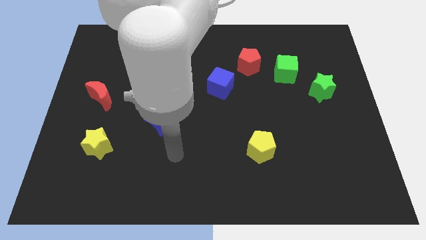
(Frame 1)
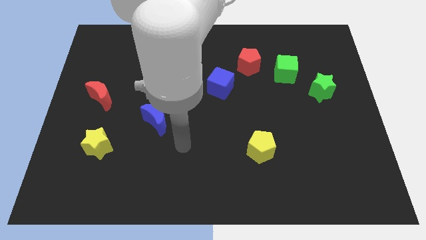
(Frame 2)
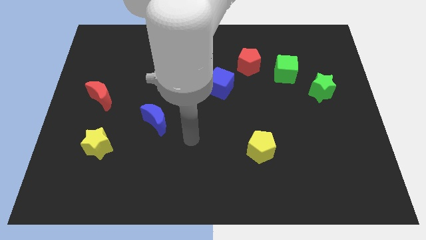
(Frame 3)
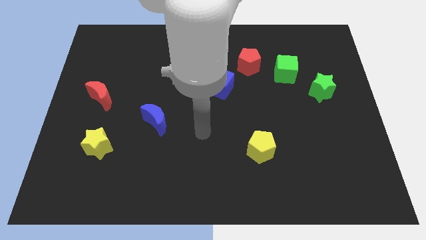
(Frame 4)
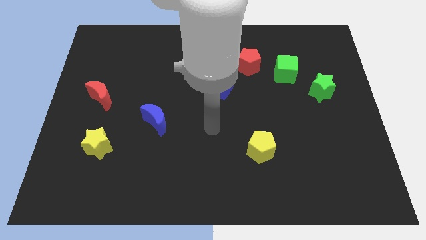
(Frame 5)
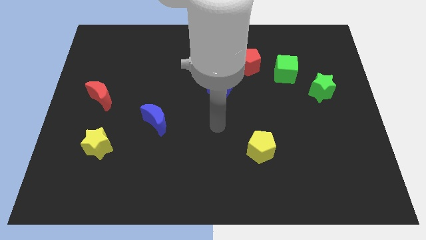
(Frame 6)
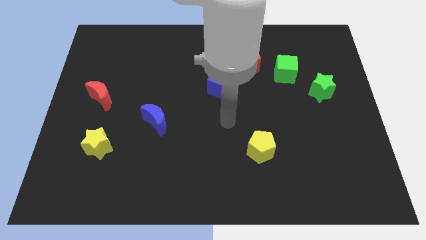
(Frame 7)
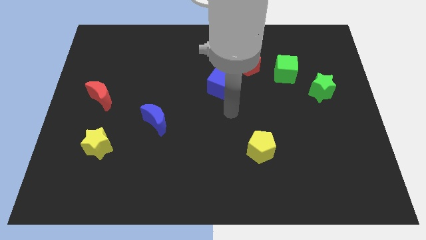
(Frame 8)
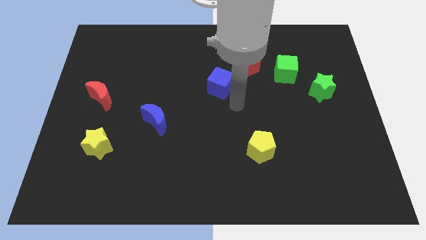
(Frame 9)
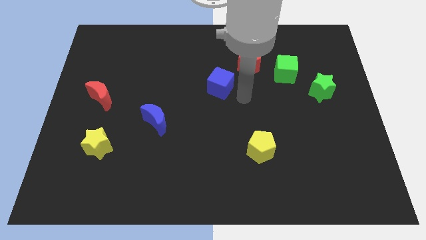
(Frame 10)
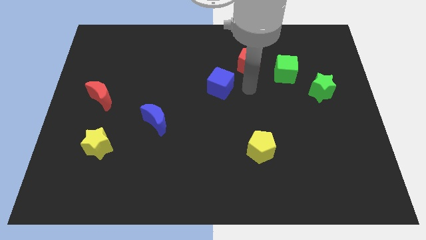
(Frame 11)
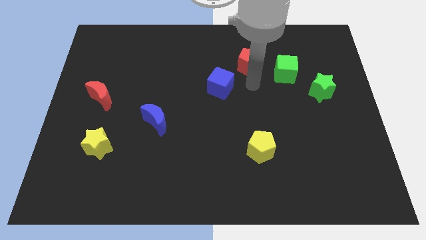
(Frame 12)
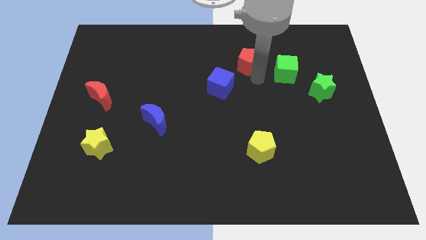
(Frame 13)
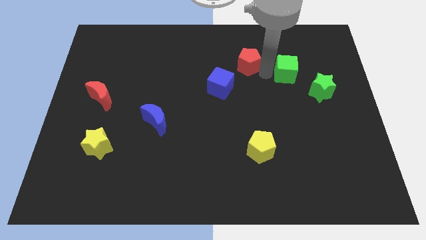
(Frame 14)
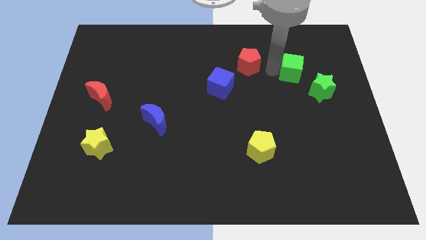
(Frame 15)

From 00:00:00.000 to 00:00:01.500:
separate the red pentagon from the green cube

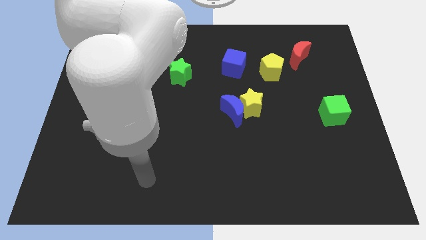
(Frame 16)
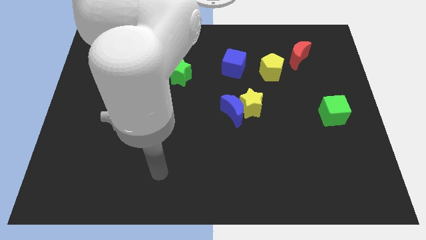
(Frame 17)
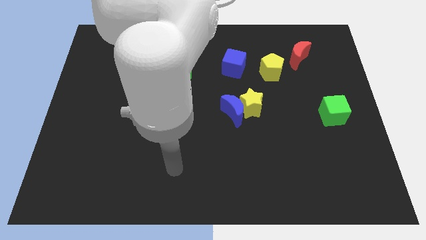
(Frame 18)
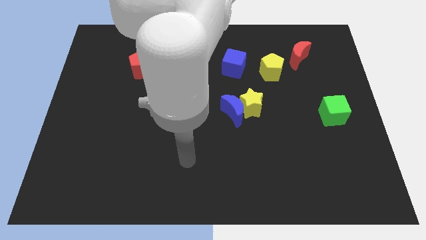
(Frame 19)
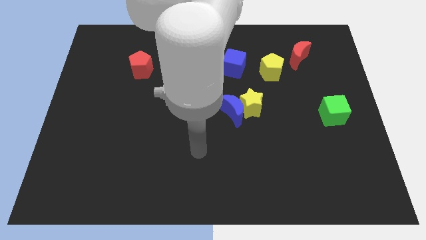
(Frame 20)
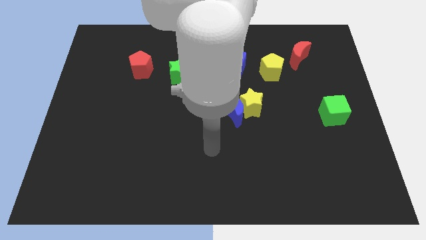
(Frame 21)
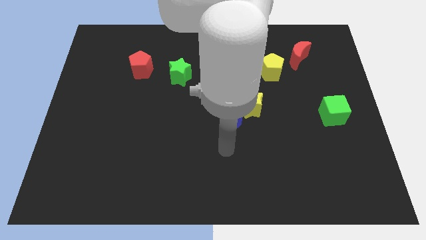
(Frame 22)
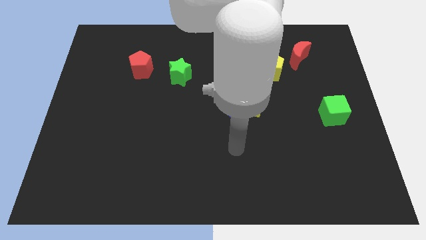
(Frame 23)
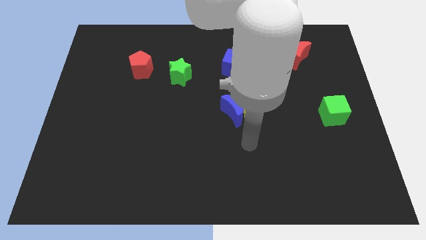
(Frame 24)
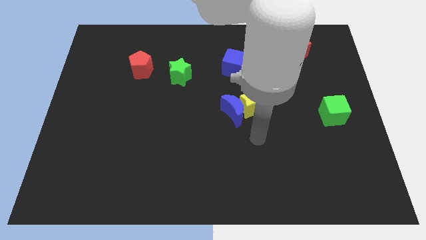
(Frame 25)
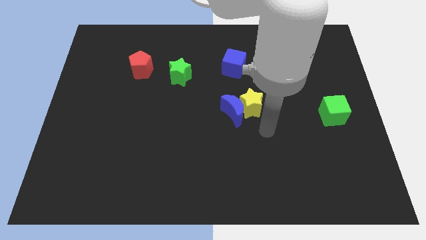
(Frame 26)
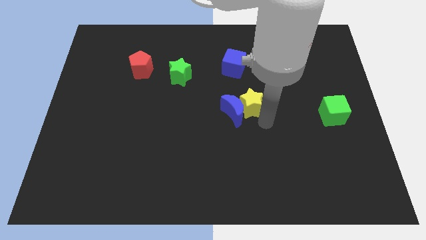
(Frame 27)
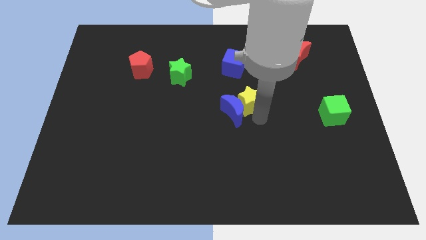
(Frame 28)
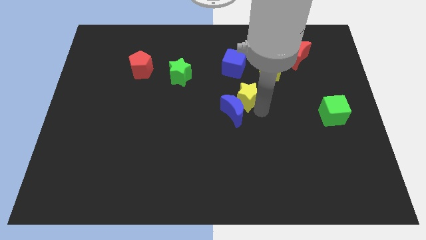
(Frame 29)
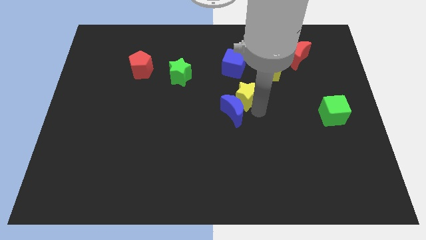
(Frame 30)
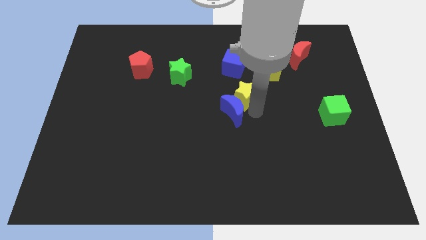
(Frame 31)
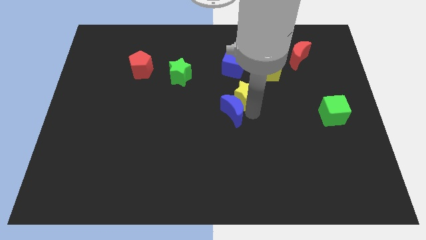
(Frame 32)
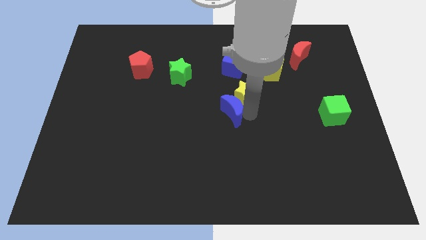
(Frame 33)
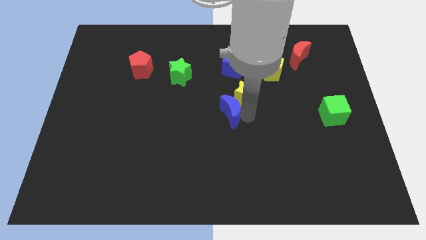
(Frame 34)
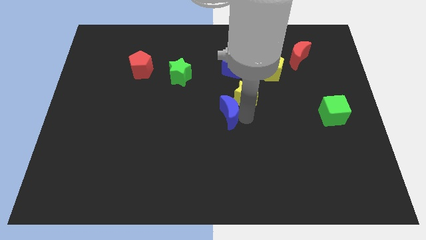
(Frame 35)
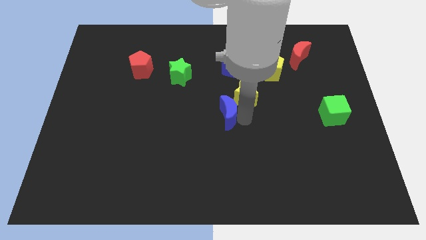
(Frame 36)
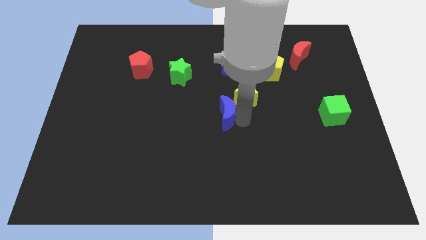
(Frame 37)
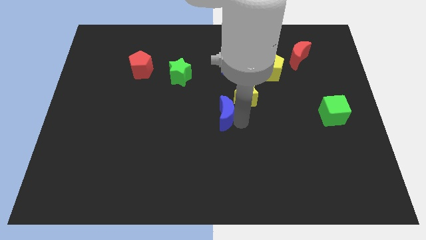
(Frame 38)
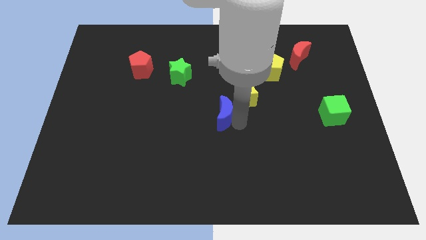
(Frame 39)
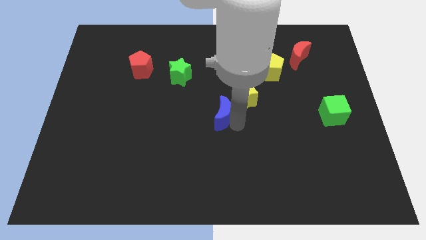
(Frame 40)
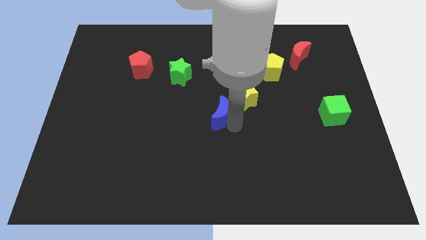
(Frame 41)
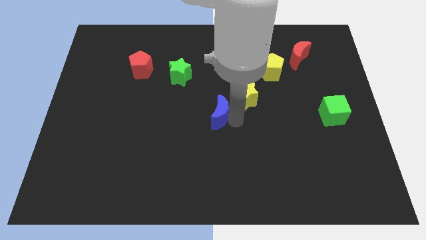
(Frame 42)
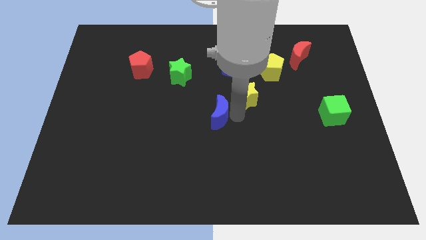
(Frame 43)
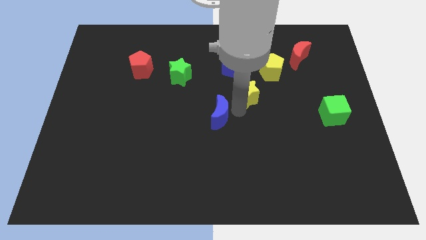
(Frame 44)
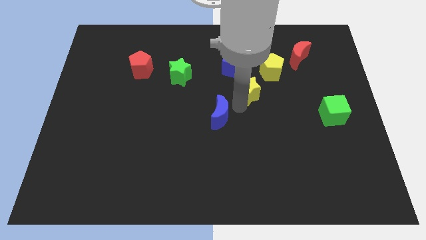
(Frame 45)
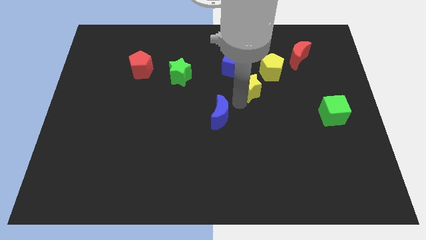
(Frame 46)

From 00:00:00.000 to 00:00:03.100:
pull the blue moon apart from the yellow star

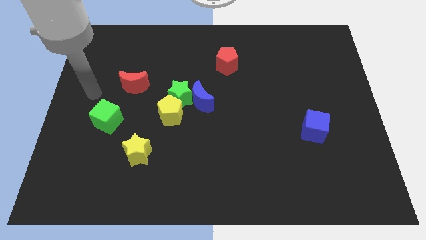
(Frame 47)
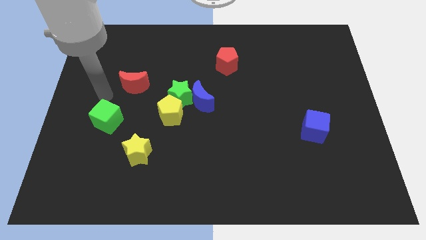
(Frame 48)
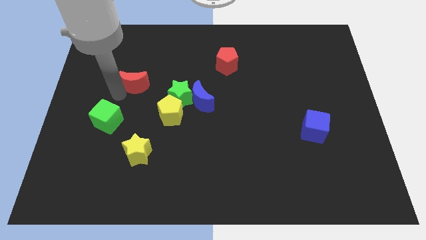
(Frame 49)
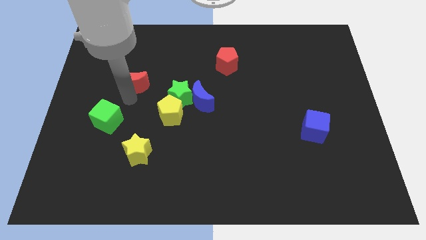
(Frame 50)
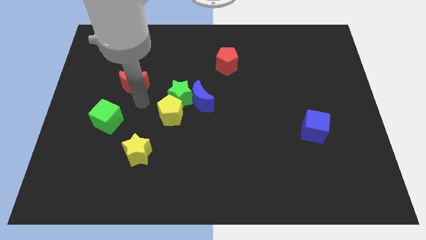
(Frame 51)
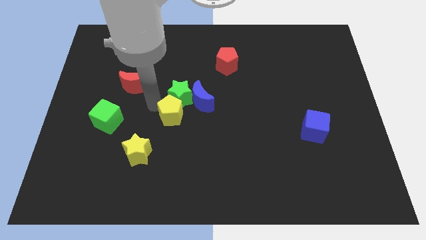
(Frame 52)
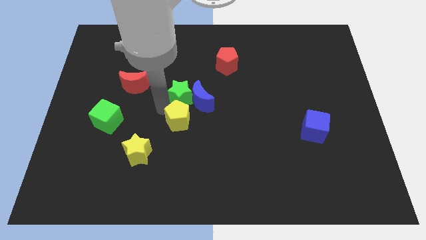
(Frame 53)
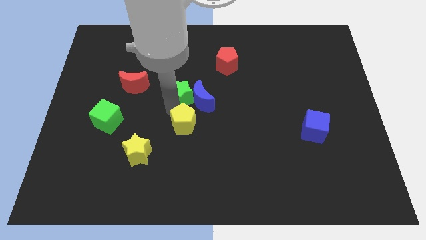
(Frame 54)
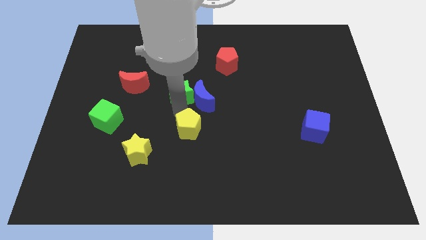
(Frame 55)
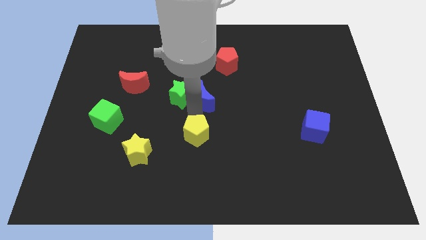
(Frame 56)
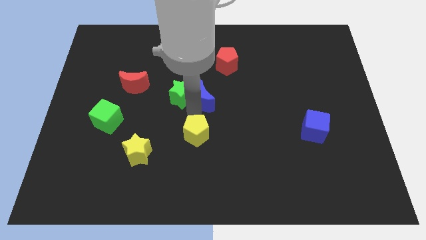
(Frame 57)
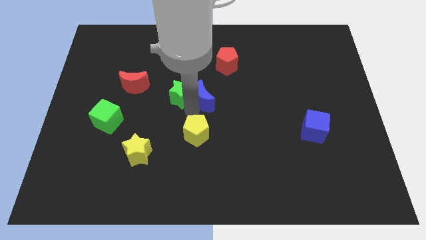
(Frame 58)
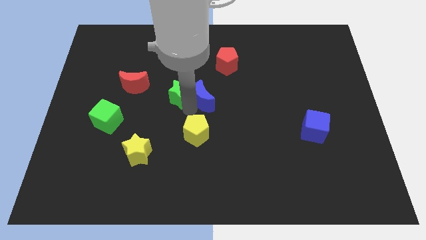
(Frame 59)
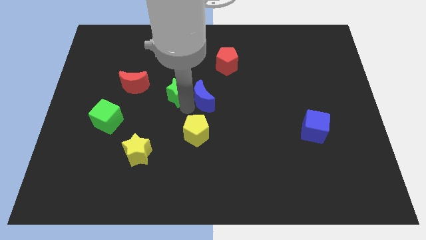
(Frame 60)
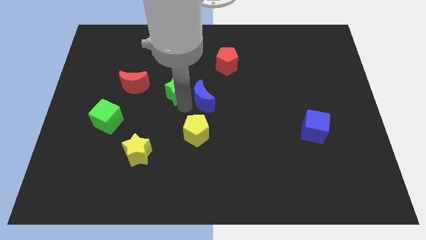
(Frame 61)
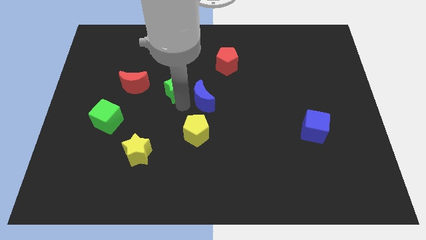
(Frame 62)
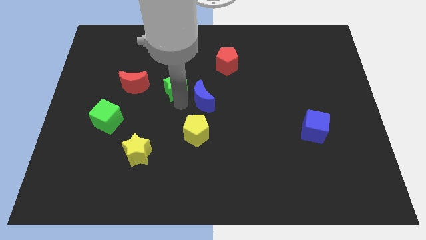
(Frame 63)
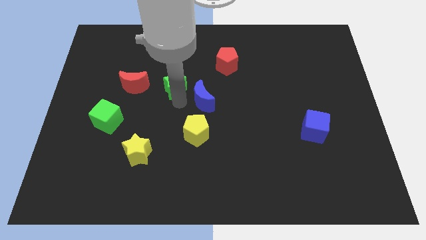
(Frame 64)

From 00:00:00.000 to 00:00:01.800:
separate the green star from the blue moon and yellow pentagon

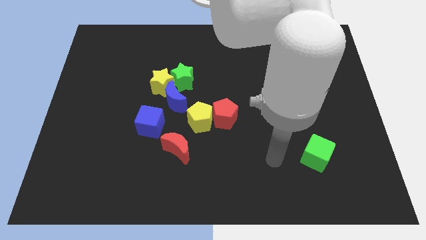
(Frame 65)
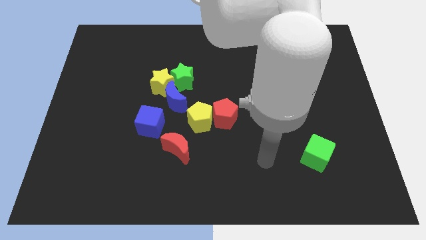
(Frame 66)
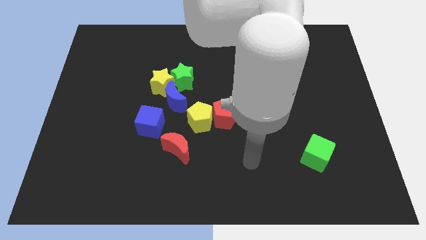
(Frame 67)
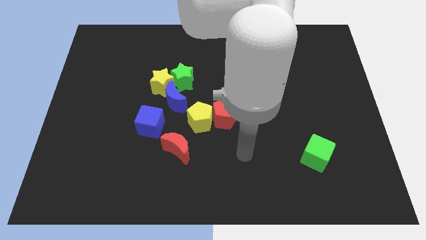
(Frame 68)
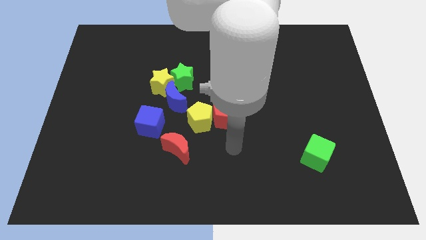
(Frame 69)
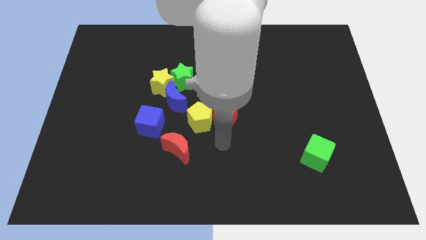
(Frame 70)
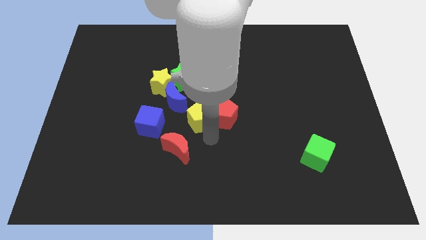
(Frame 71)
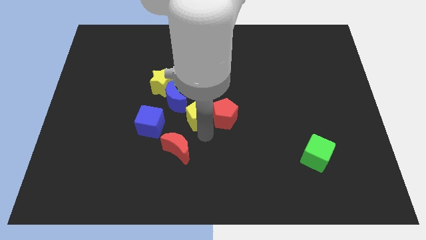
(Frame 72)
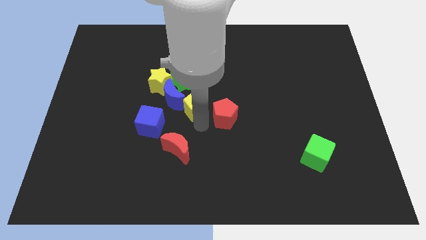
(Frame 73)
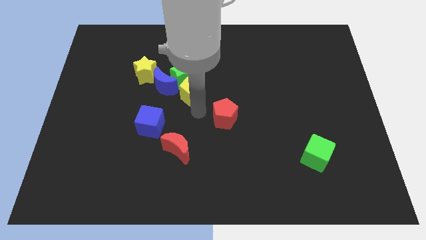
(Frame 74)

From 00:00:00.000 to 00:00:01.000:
separate the red pentagon from the yellow pentagon

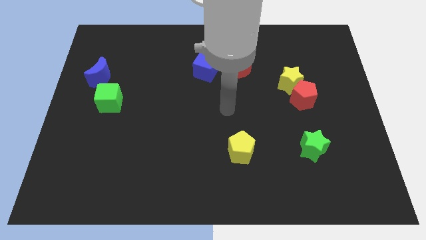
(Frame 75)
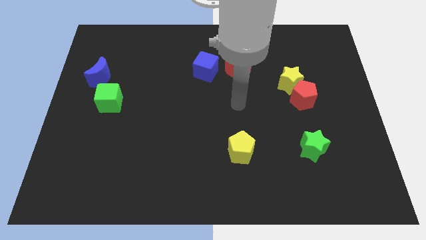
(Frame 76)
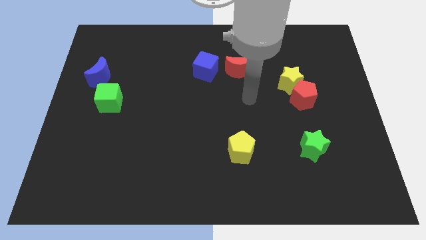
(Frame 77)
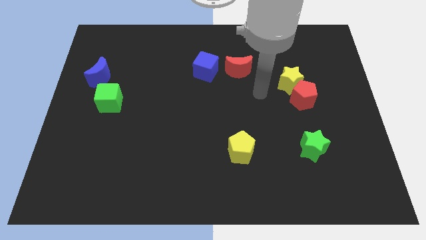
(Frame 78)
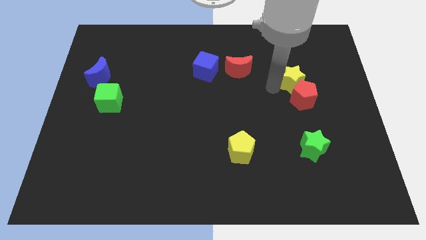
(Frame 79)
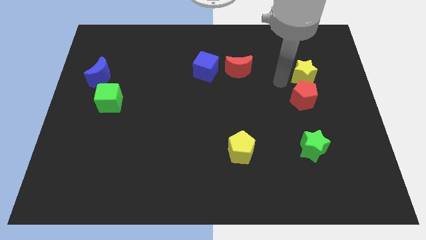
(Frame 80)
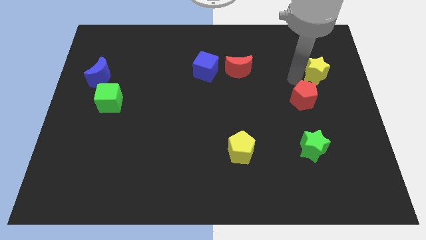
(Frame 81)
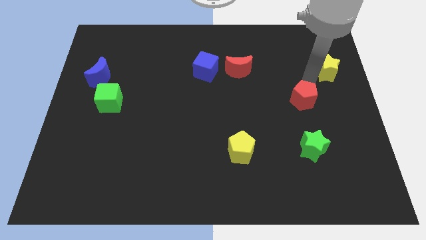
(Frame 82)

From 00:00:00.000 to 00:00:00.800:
move the red pentagon away from the yellow star

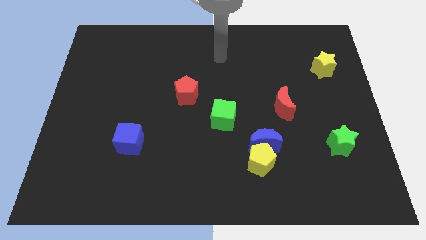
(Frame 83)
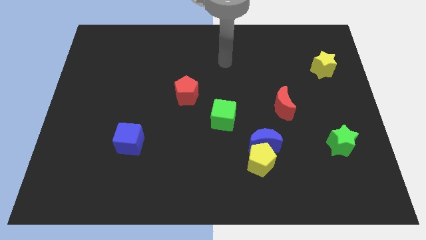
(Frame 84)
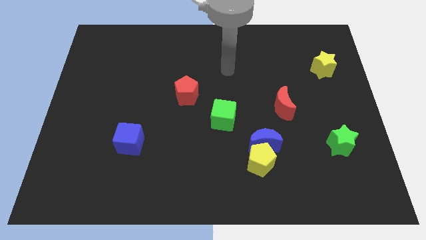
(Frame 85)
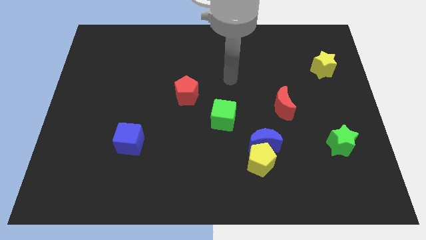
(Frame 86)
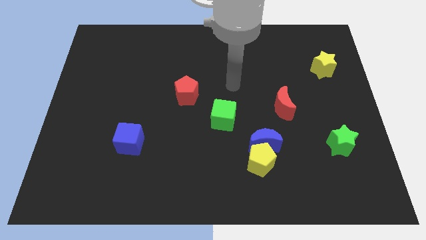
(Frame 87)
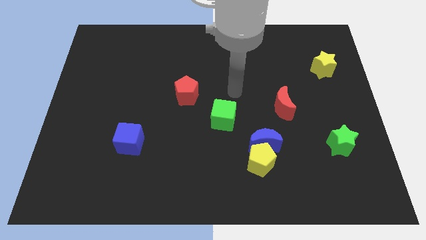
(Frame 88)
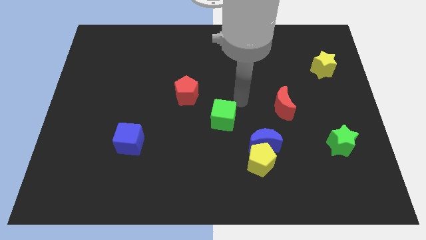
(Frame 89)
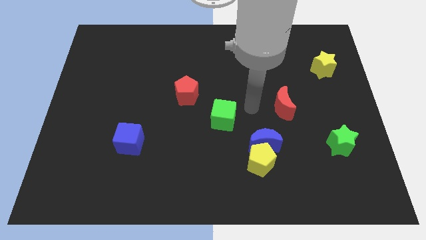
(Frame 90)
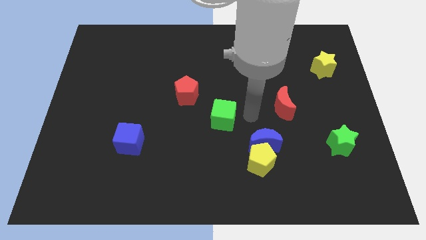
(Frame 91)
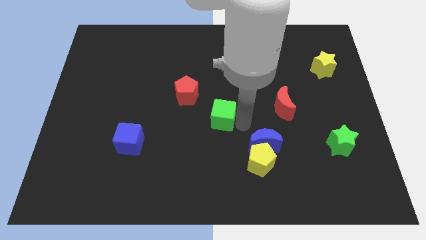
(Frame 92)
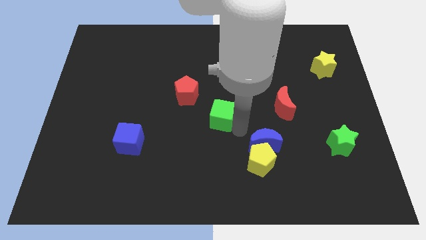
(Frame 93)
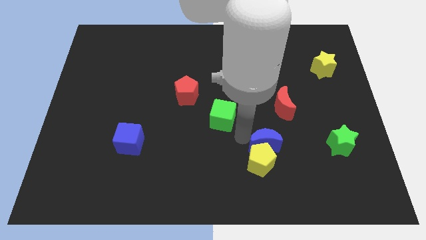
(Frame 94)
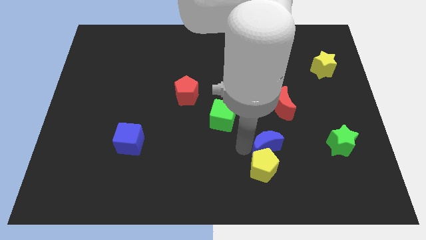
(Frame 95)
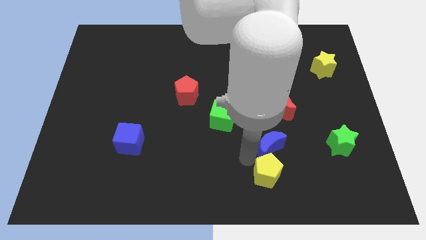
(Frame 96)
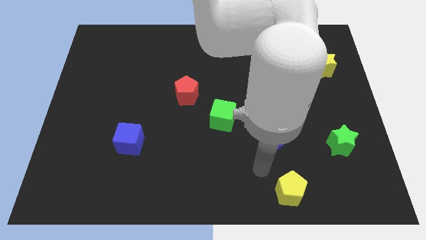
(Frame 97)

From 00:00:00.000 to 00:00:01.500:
separate the blue moon from the yellow pentagon
